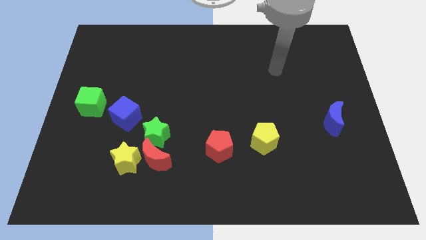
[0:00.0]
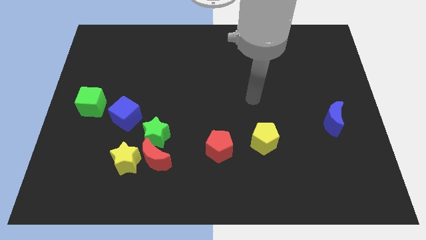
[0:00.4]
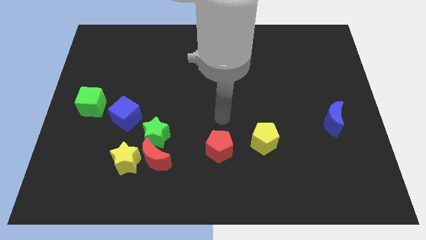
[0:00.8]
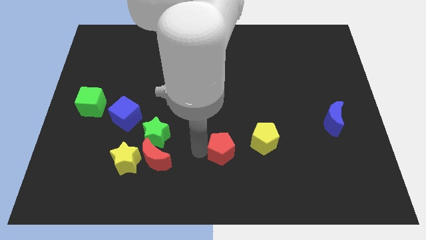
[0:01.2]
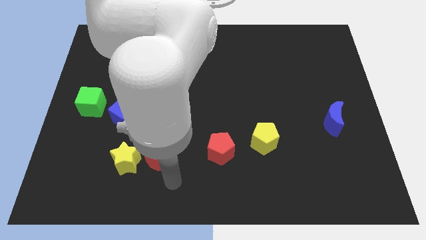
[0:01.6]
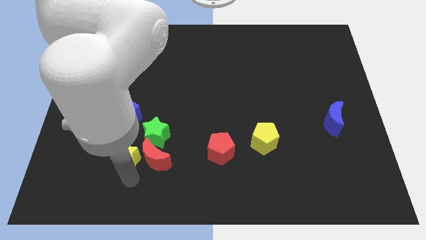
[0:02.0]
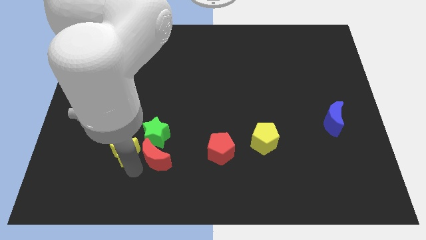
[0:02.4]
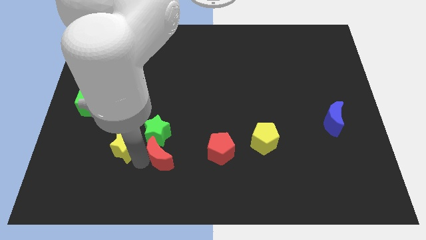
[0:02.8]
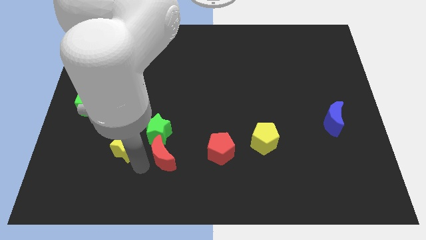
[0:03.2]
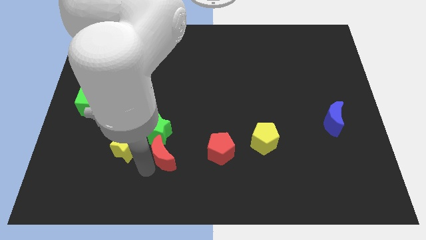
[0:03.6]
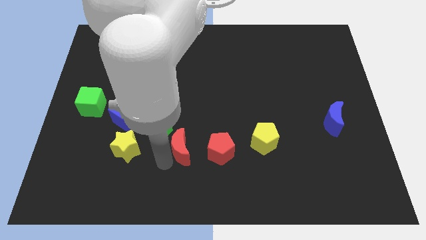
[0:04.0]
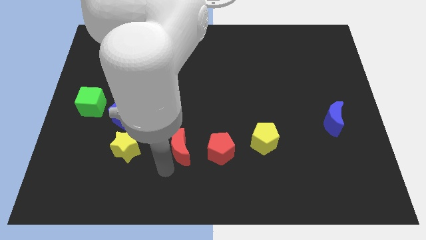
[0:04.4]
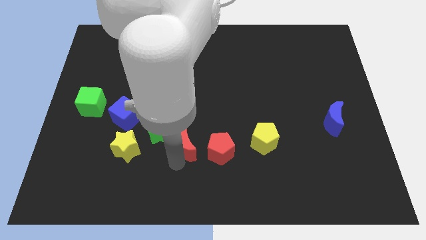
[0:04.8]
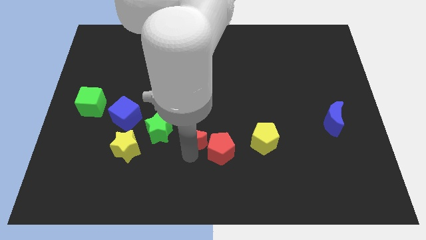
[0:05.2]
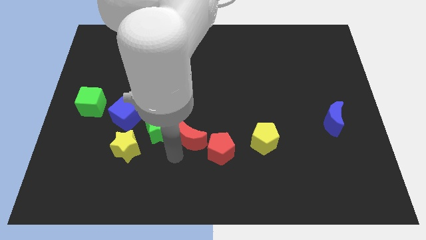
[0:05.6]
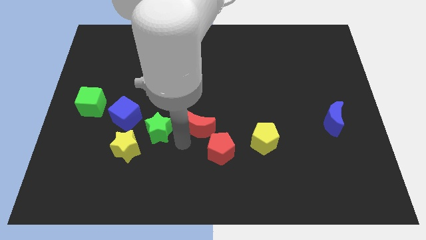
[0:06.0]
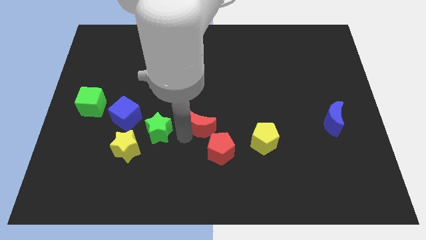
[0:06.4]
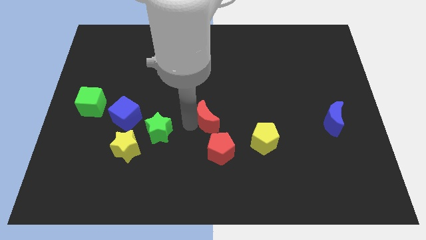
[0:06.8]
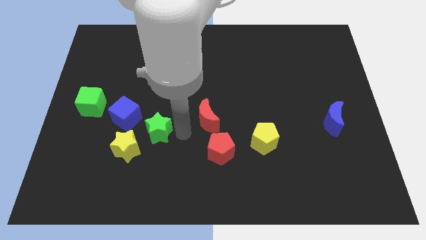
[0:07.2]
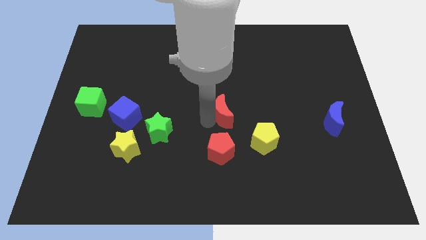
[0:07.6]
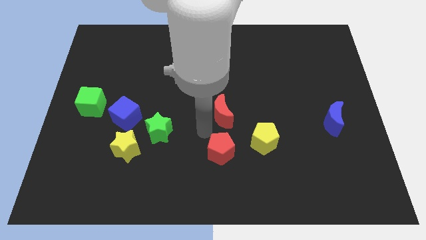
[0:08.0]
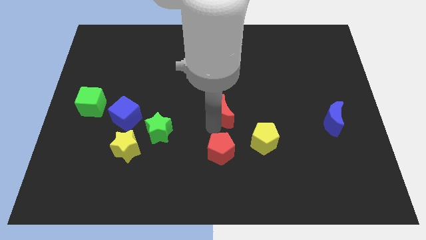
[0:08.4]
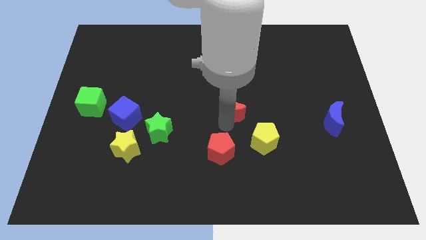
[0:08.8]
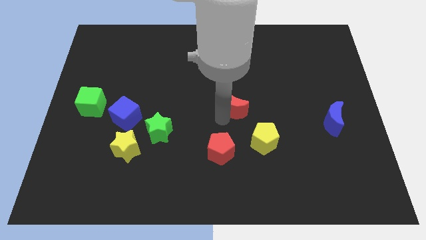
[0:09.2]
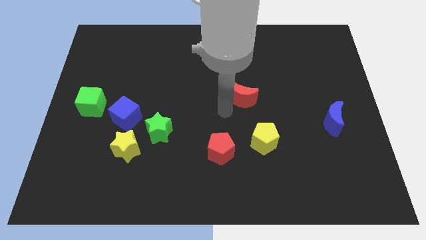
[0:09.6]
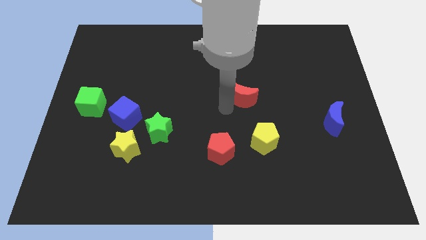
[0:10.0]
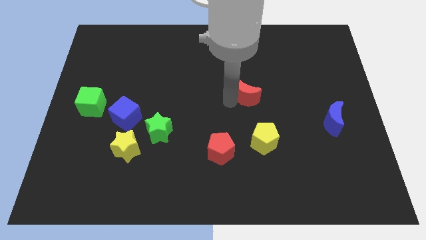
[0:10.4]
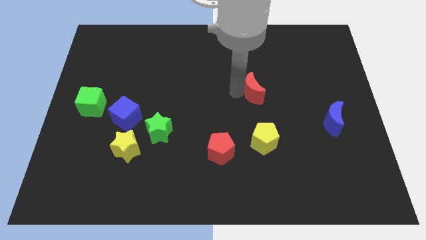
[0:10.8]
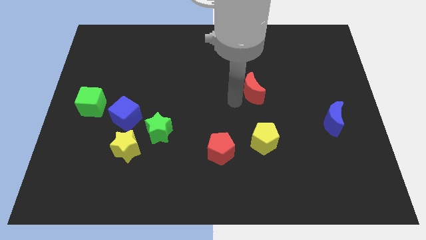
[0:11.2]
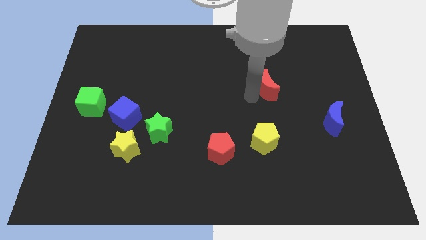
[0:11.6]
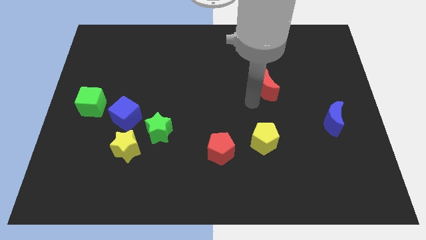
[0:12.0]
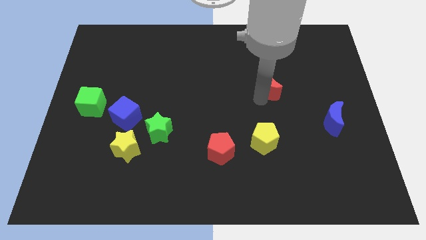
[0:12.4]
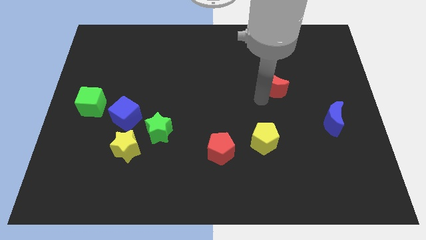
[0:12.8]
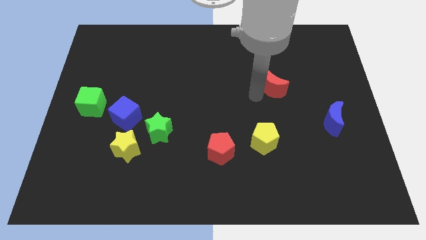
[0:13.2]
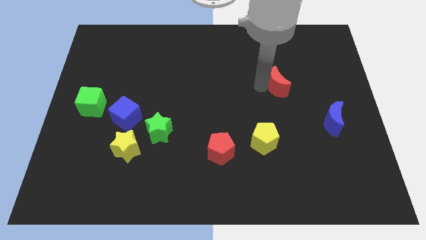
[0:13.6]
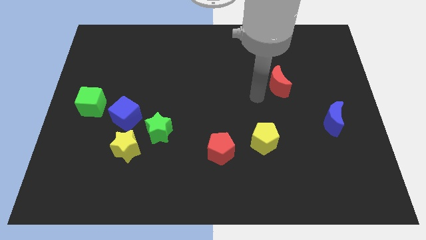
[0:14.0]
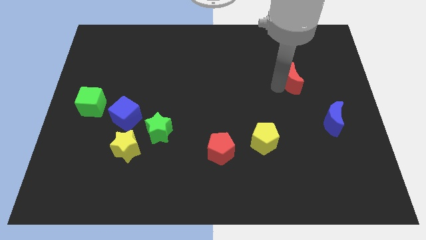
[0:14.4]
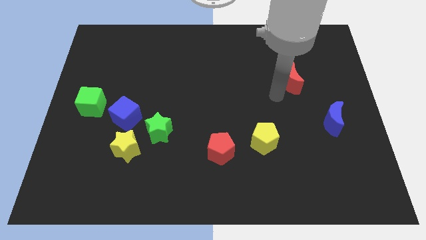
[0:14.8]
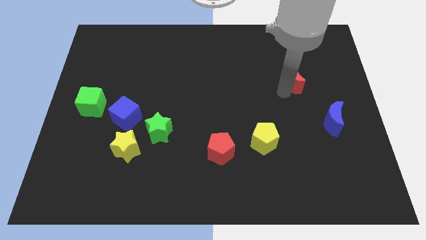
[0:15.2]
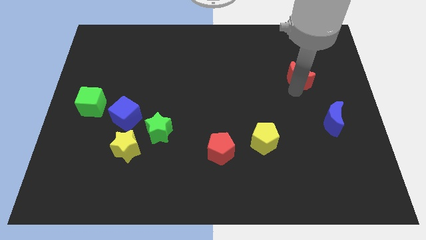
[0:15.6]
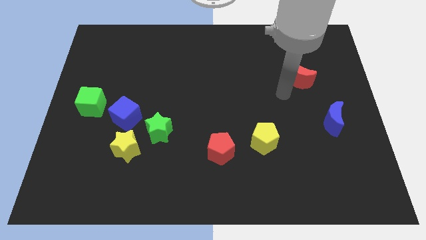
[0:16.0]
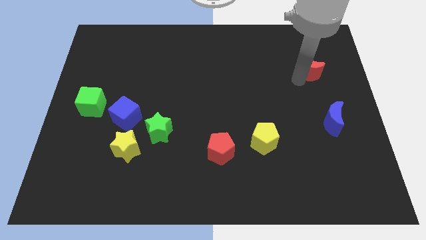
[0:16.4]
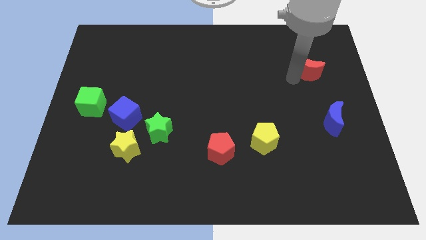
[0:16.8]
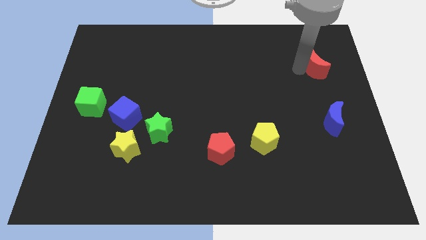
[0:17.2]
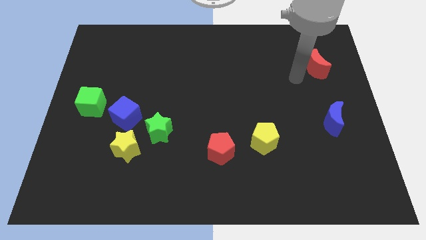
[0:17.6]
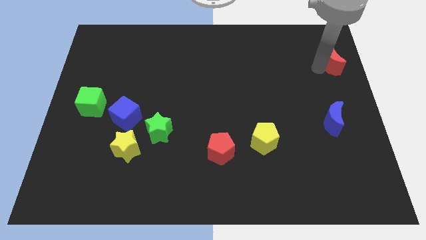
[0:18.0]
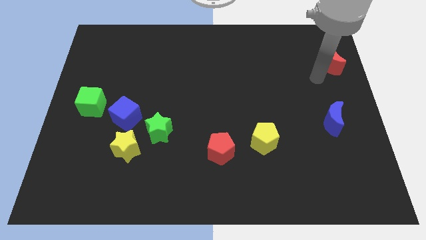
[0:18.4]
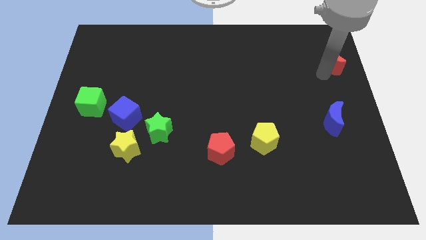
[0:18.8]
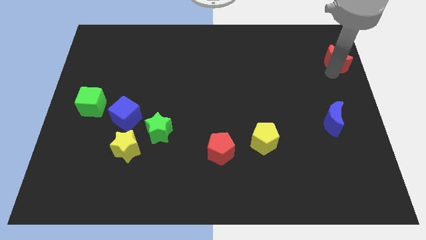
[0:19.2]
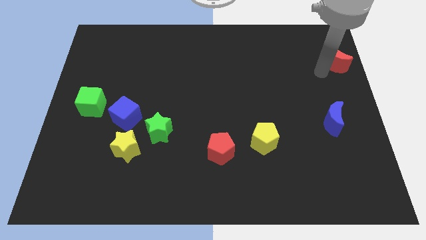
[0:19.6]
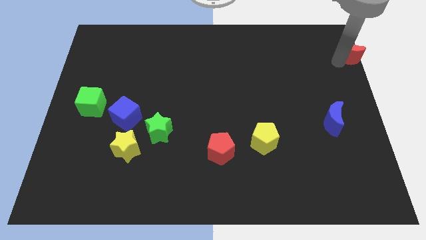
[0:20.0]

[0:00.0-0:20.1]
slide the red moon to the top right corner

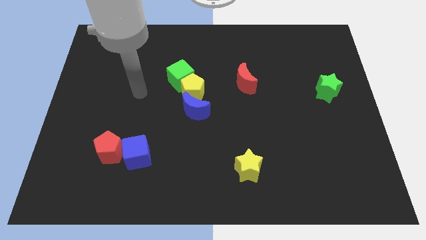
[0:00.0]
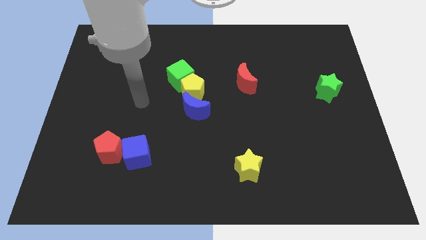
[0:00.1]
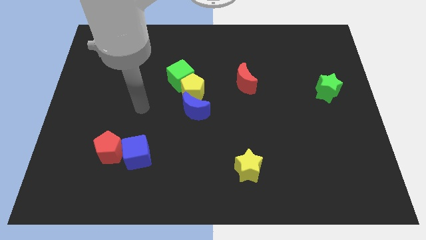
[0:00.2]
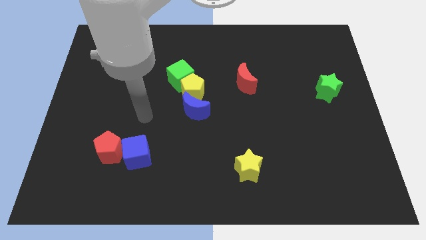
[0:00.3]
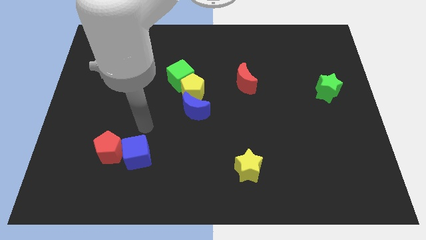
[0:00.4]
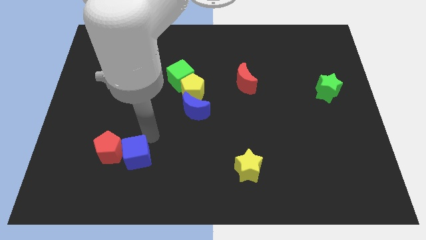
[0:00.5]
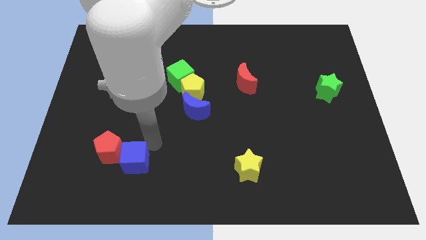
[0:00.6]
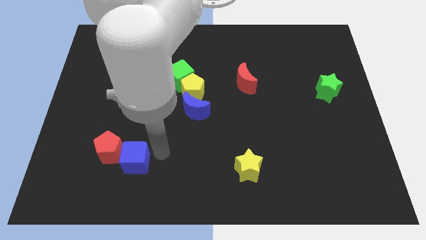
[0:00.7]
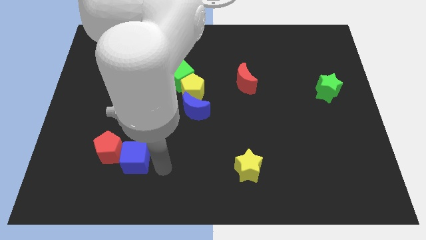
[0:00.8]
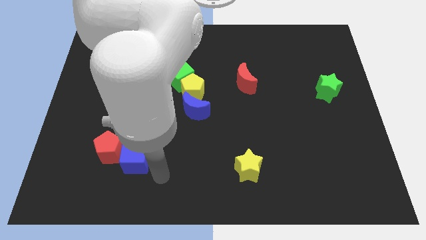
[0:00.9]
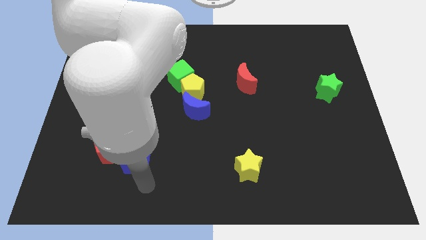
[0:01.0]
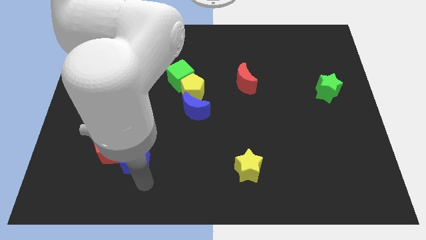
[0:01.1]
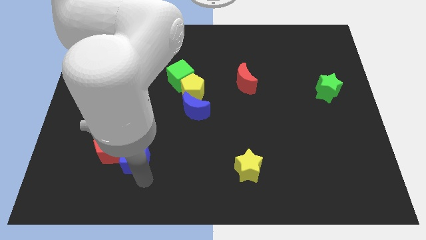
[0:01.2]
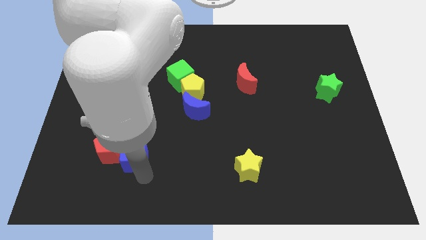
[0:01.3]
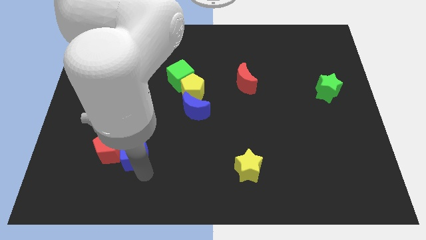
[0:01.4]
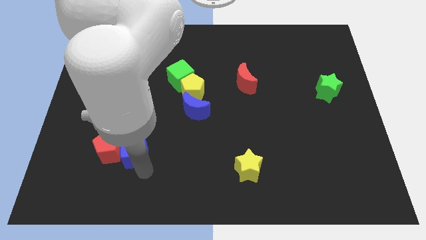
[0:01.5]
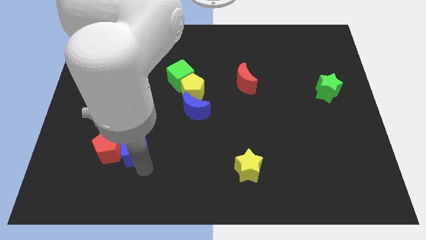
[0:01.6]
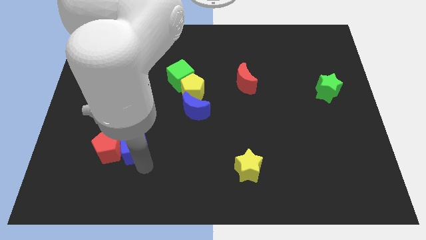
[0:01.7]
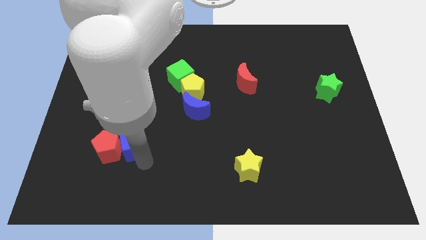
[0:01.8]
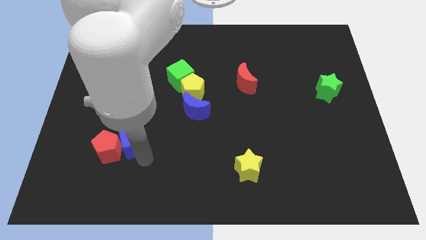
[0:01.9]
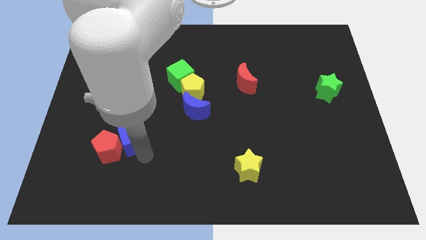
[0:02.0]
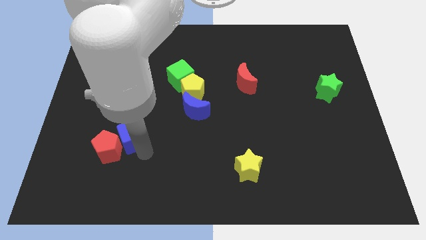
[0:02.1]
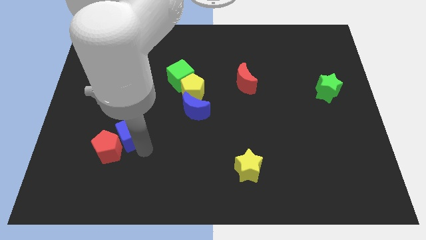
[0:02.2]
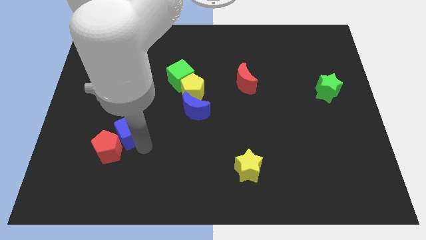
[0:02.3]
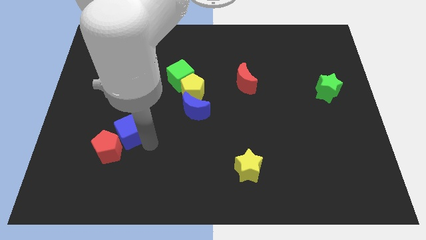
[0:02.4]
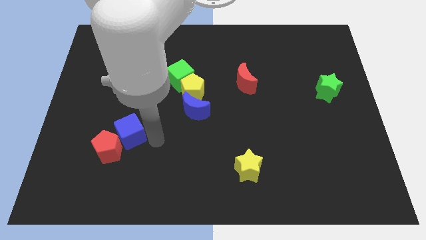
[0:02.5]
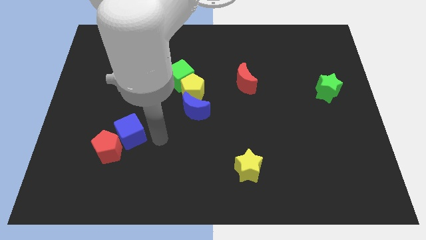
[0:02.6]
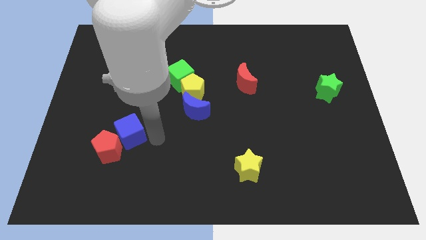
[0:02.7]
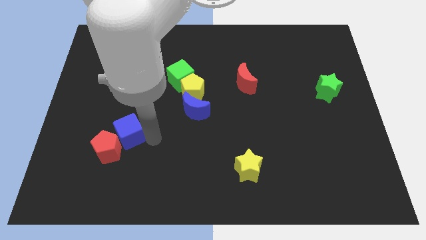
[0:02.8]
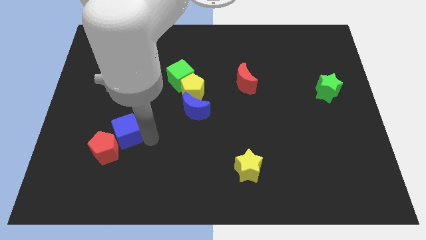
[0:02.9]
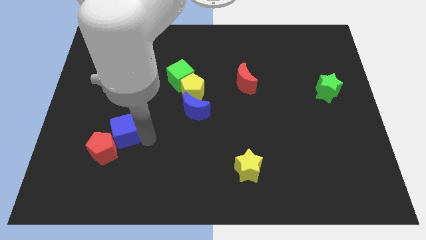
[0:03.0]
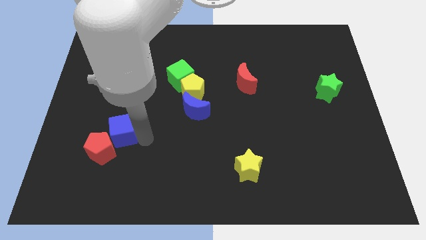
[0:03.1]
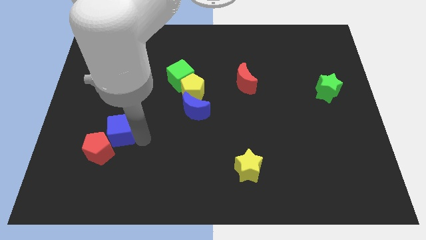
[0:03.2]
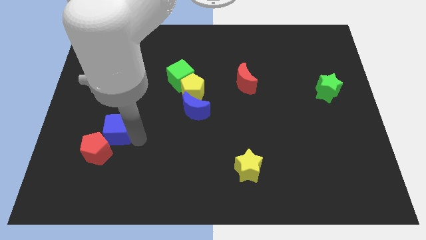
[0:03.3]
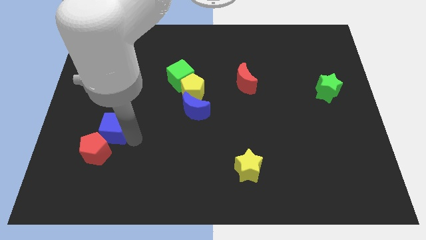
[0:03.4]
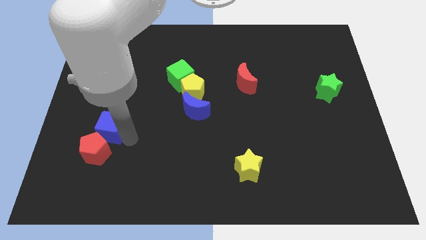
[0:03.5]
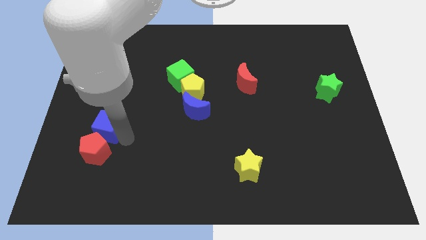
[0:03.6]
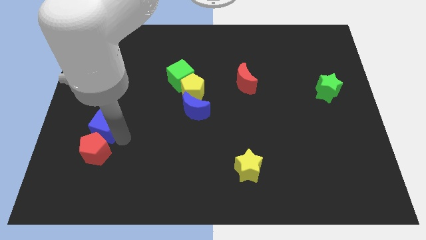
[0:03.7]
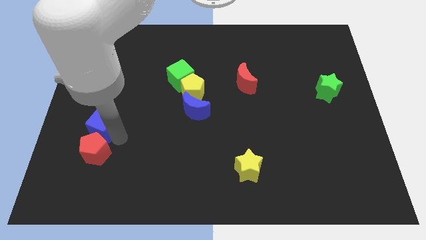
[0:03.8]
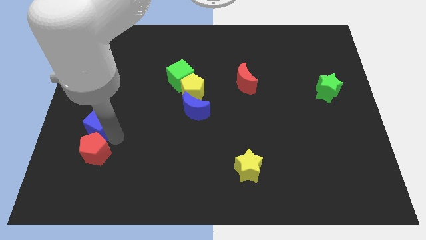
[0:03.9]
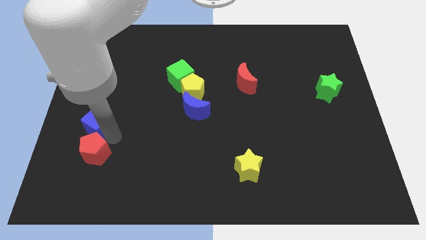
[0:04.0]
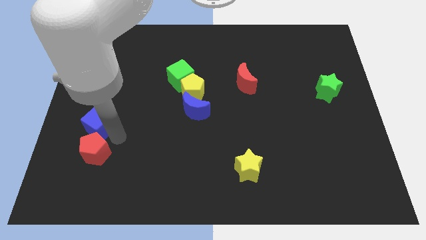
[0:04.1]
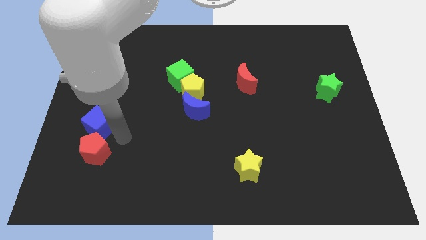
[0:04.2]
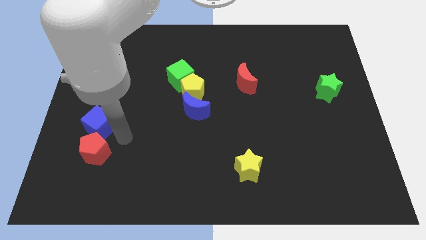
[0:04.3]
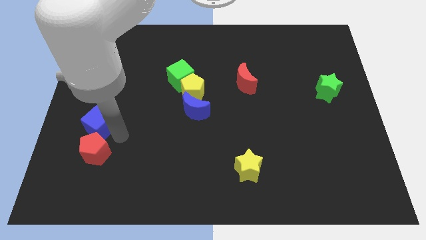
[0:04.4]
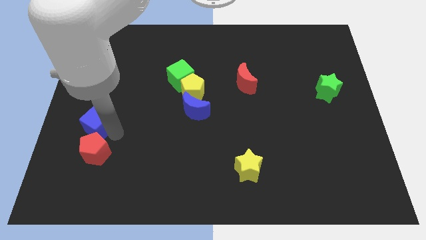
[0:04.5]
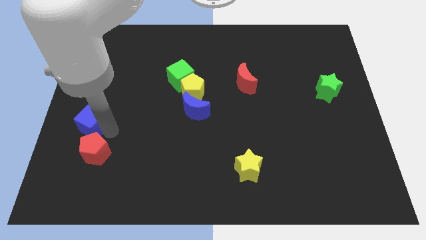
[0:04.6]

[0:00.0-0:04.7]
move the blue cube to the left side of the board
